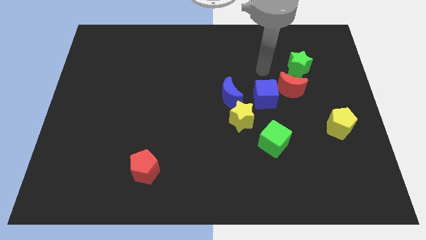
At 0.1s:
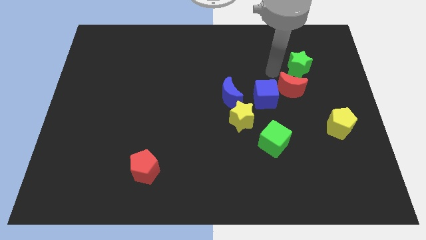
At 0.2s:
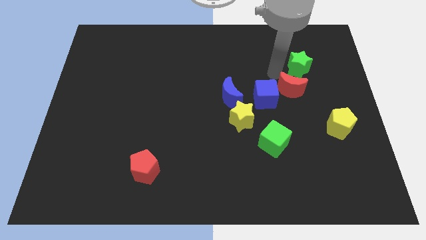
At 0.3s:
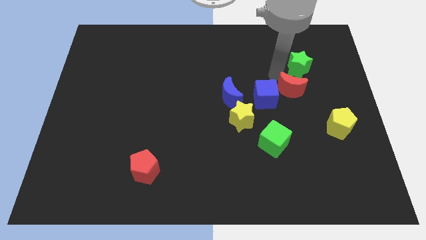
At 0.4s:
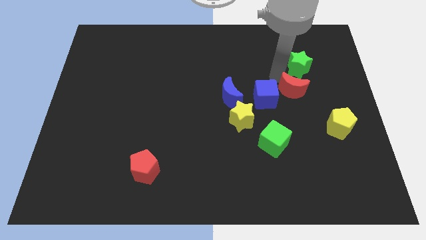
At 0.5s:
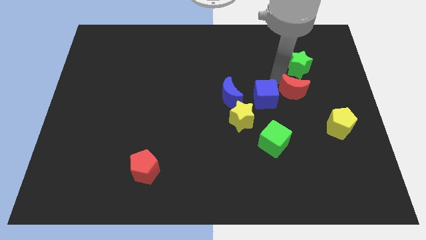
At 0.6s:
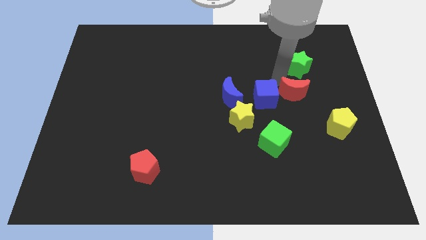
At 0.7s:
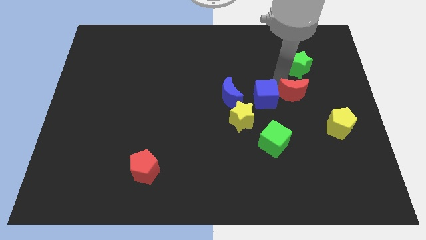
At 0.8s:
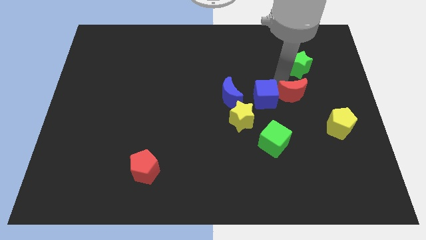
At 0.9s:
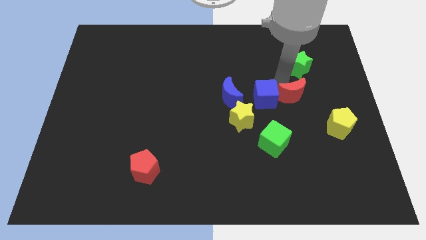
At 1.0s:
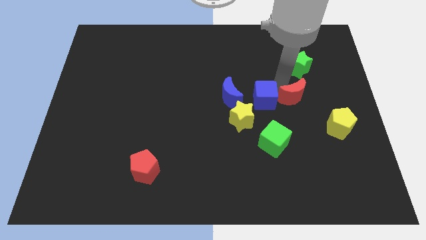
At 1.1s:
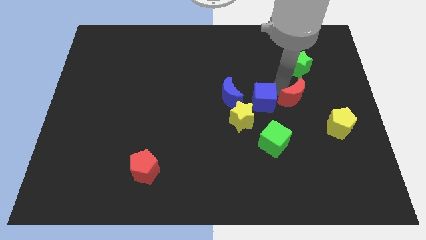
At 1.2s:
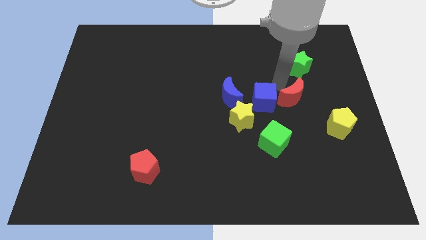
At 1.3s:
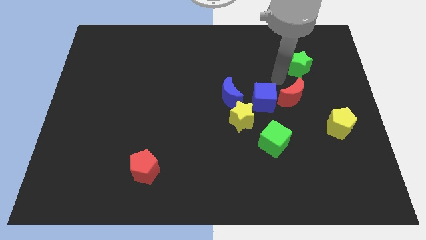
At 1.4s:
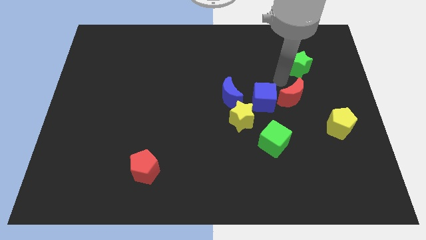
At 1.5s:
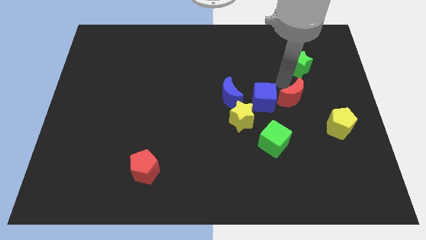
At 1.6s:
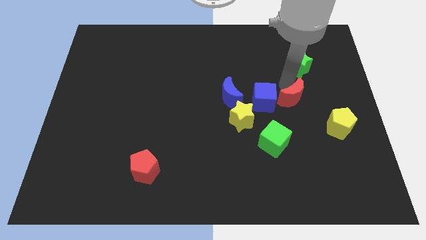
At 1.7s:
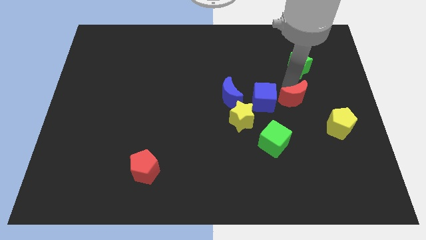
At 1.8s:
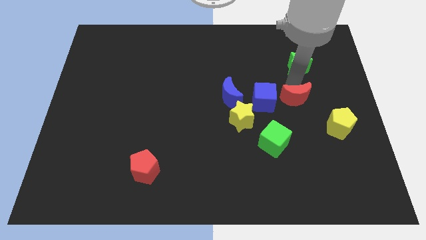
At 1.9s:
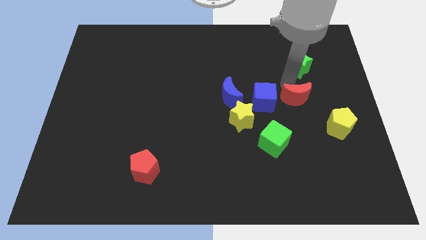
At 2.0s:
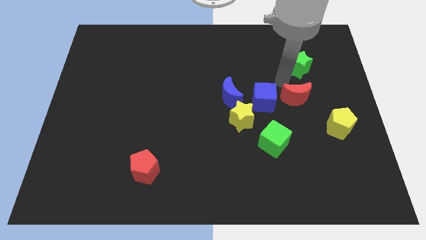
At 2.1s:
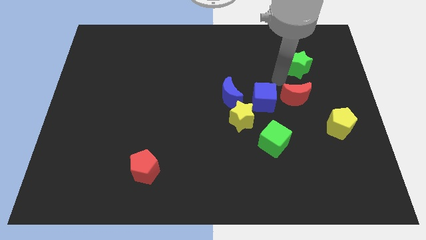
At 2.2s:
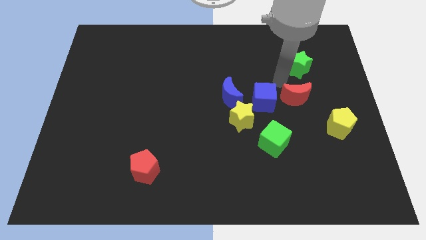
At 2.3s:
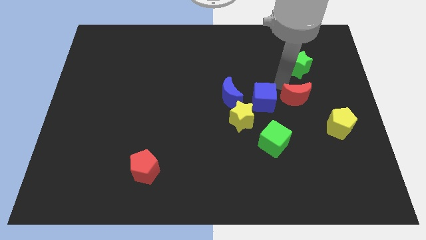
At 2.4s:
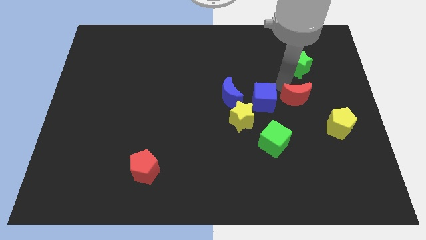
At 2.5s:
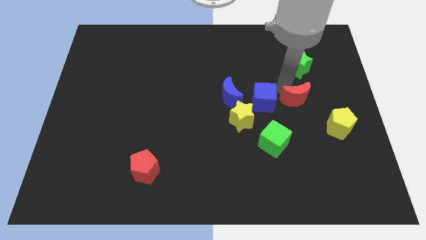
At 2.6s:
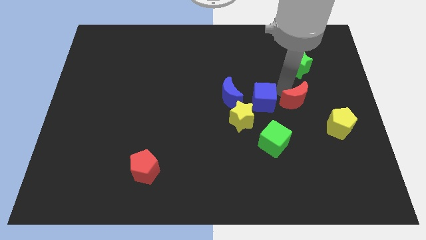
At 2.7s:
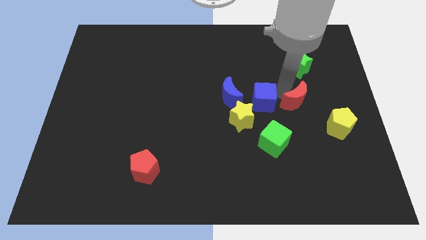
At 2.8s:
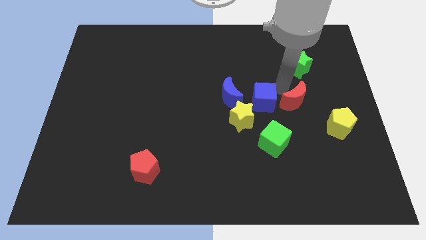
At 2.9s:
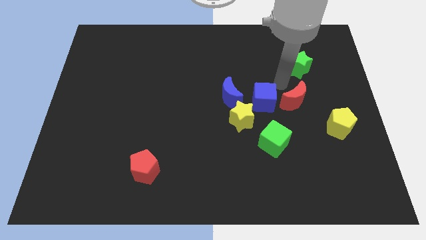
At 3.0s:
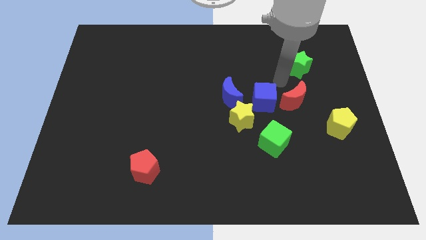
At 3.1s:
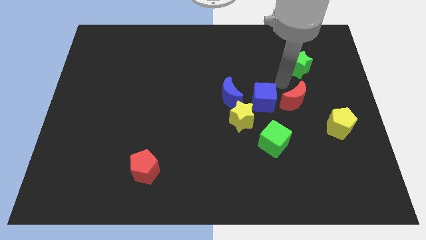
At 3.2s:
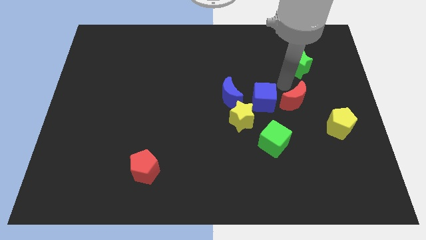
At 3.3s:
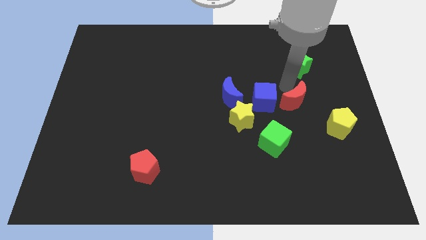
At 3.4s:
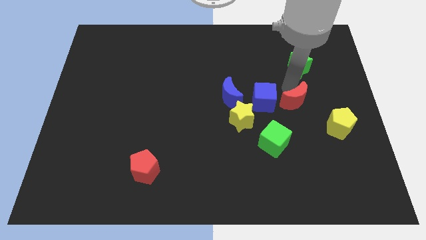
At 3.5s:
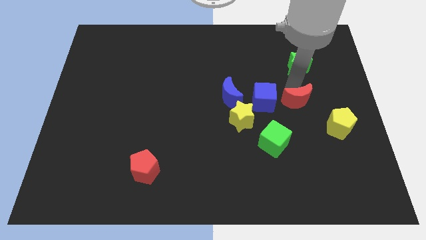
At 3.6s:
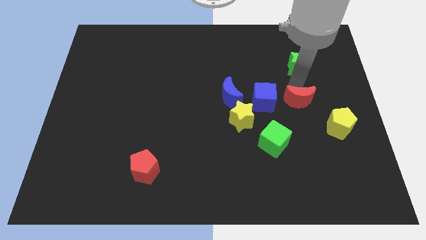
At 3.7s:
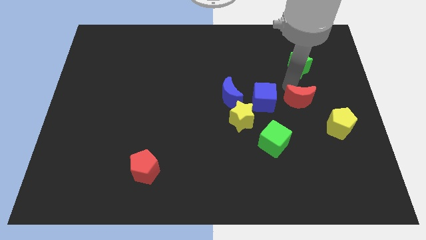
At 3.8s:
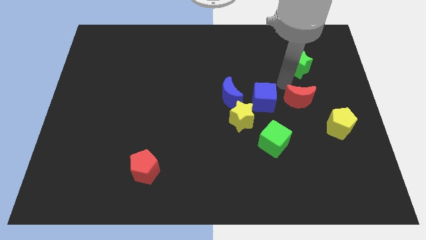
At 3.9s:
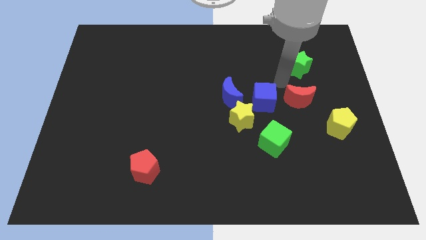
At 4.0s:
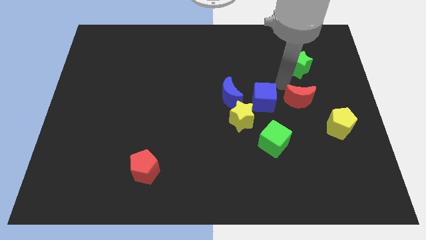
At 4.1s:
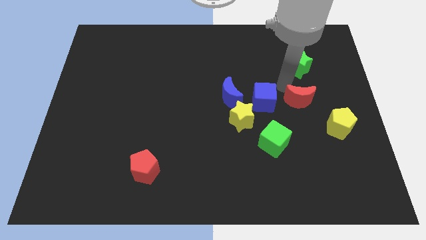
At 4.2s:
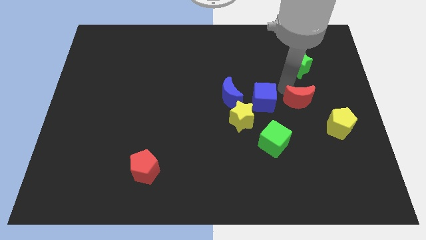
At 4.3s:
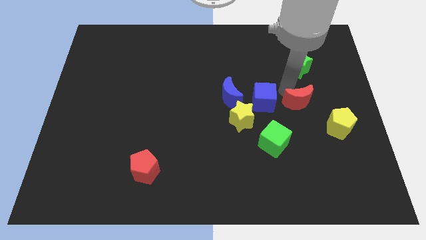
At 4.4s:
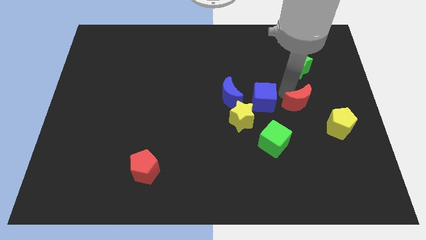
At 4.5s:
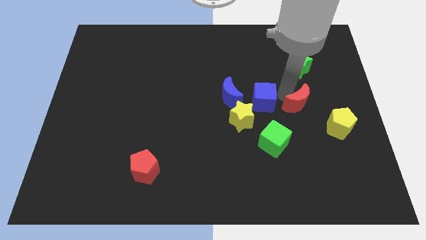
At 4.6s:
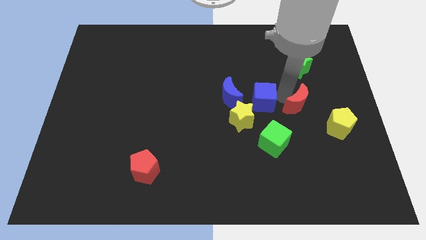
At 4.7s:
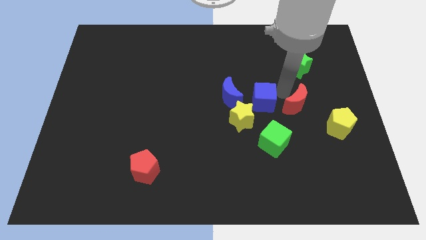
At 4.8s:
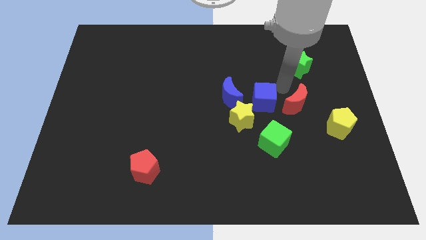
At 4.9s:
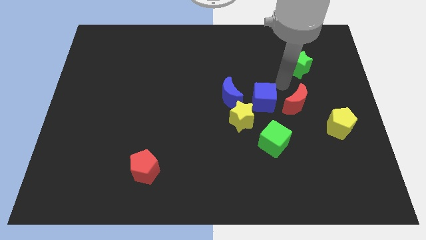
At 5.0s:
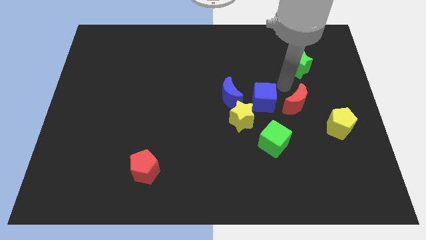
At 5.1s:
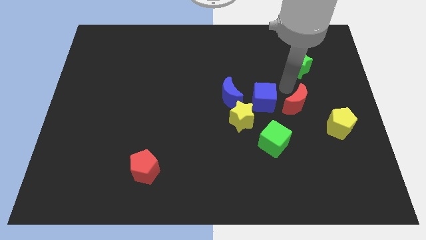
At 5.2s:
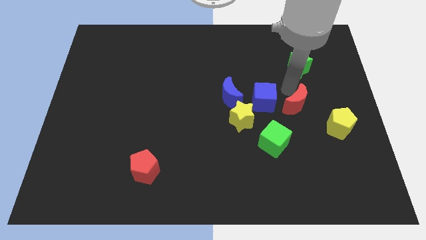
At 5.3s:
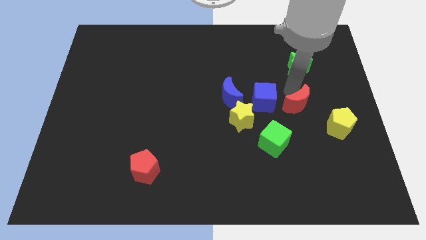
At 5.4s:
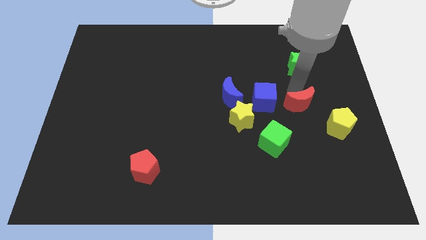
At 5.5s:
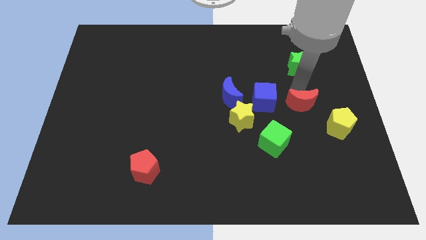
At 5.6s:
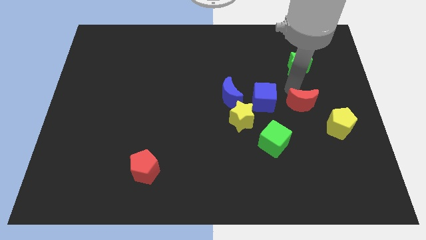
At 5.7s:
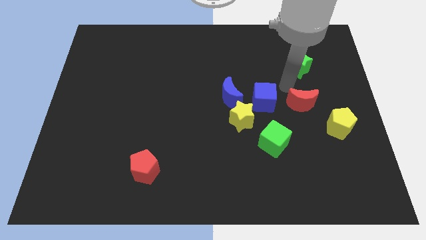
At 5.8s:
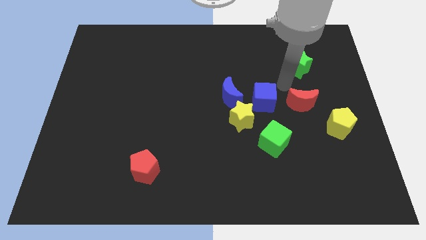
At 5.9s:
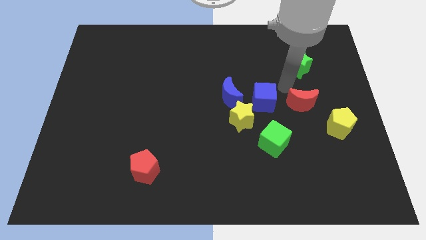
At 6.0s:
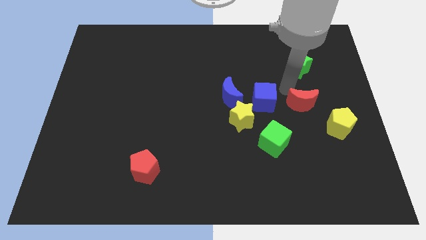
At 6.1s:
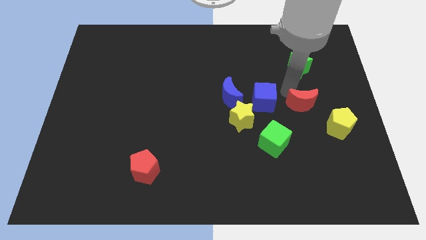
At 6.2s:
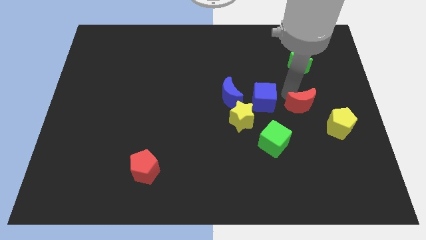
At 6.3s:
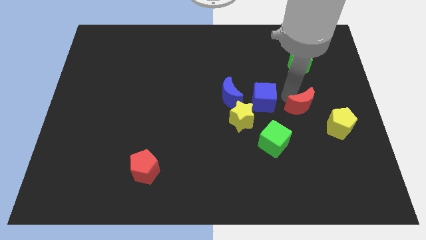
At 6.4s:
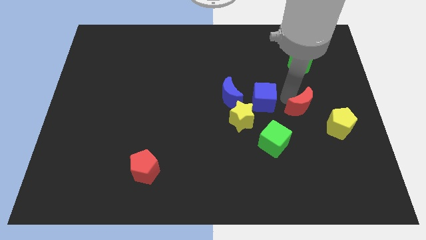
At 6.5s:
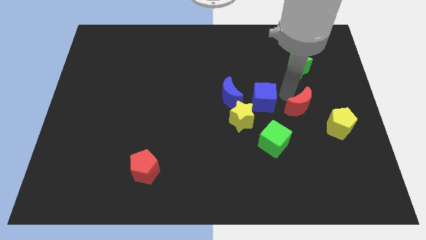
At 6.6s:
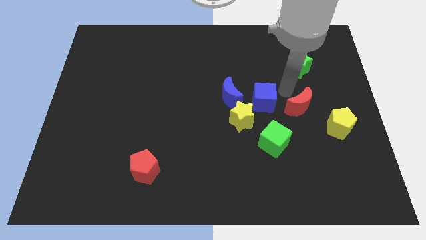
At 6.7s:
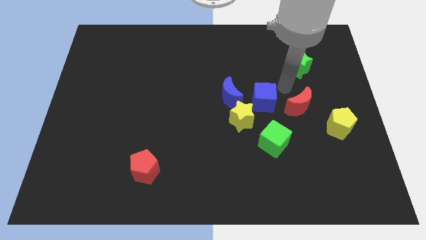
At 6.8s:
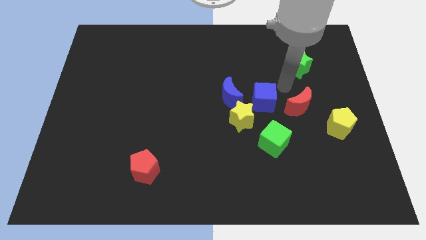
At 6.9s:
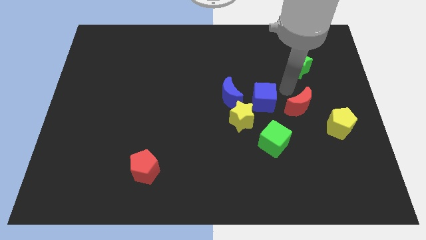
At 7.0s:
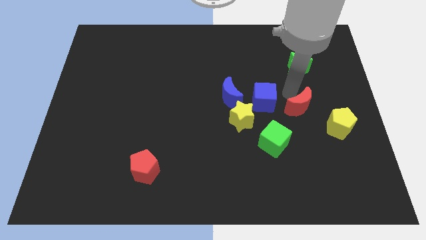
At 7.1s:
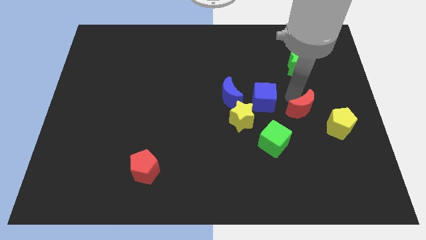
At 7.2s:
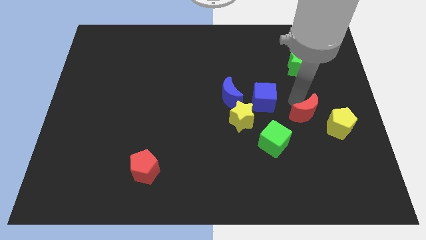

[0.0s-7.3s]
separate the red moon from the blue cube and green star

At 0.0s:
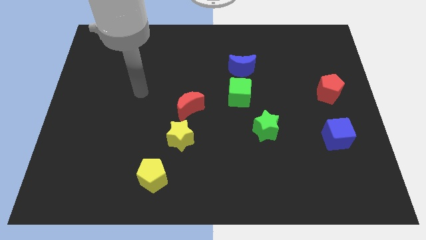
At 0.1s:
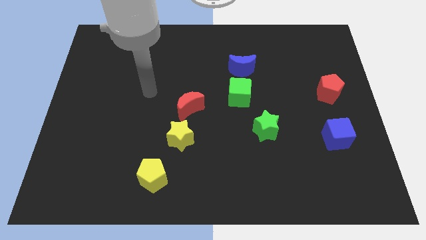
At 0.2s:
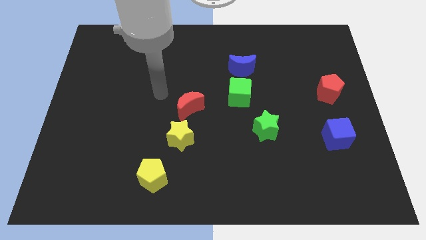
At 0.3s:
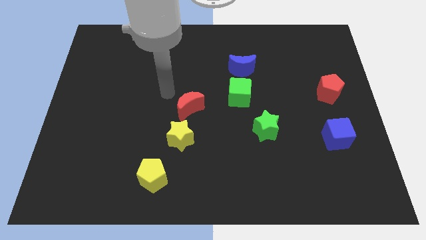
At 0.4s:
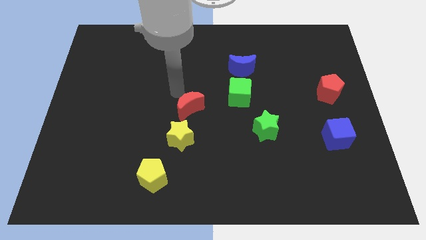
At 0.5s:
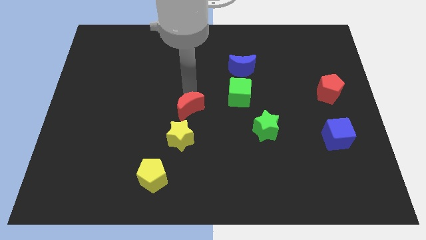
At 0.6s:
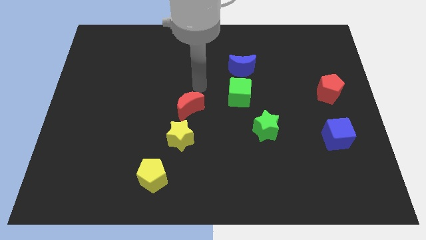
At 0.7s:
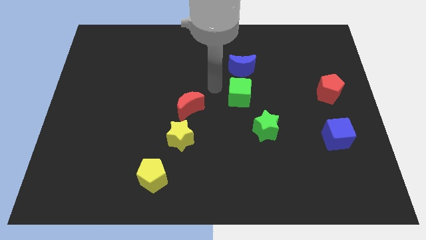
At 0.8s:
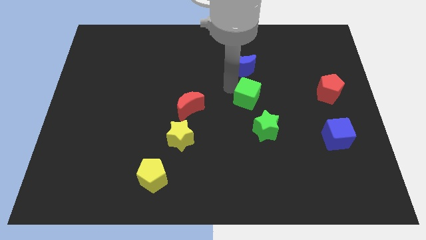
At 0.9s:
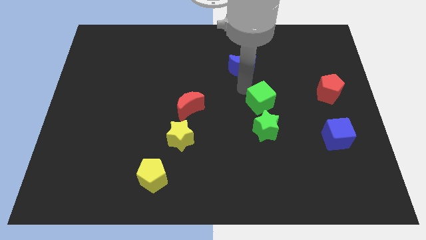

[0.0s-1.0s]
pull the blue moon apart from the green cube

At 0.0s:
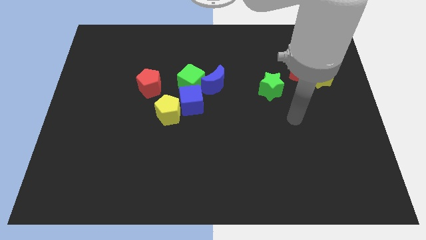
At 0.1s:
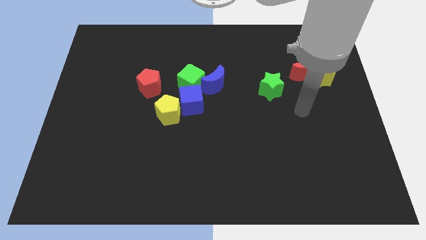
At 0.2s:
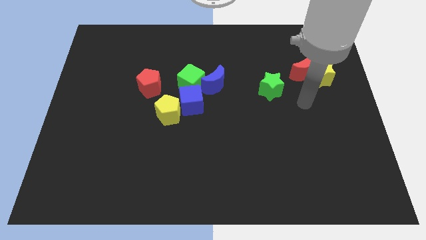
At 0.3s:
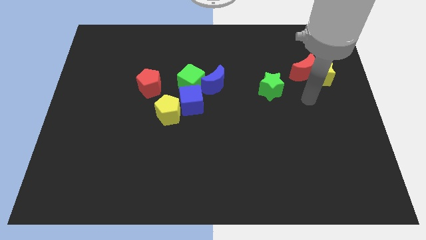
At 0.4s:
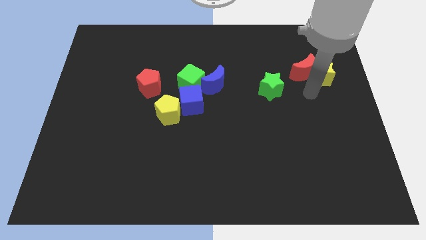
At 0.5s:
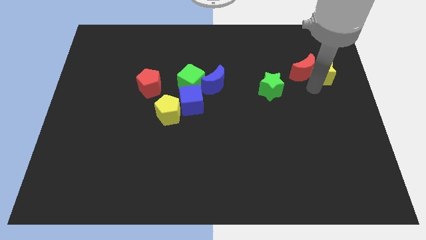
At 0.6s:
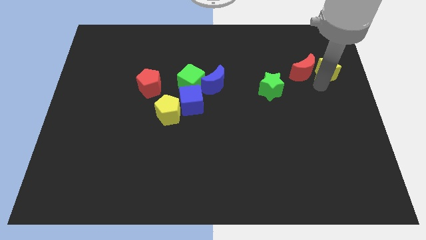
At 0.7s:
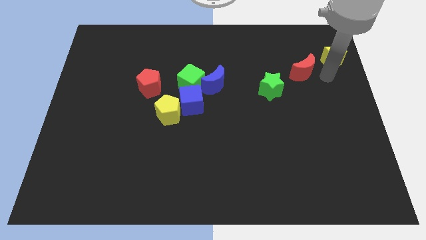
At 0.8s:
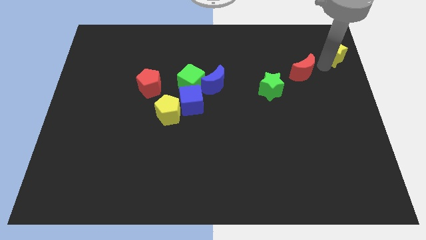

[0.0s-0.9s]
move the red moon away from the yellow star

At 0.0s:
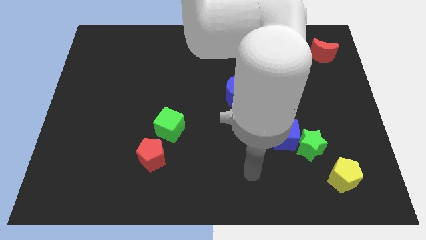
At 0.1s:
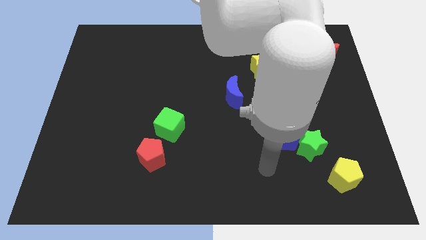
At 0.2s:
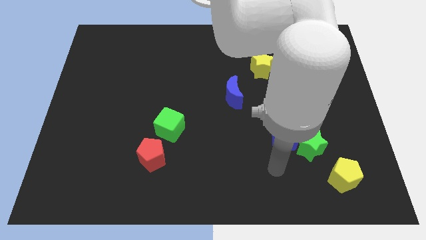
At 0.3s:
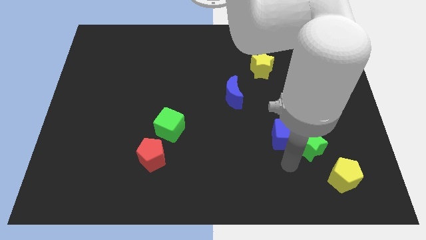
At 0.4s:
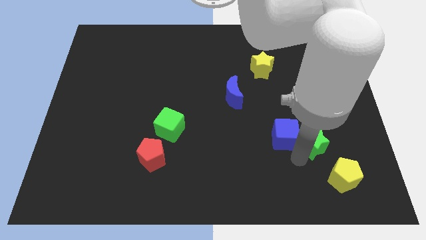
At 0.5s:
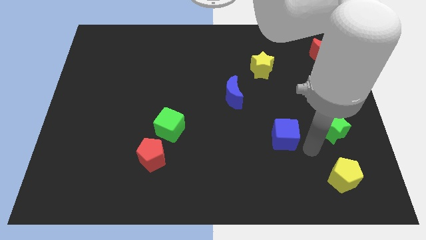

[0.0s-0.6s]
pull the blue cube apart from the green star
